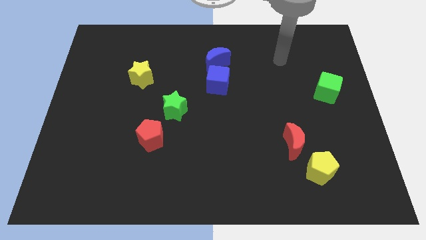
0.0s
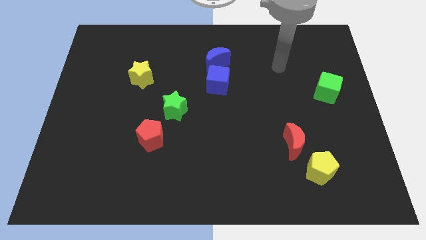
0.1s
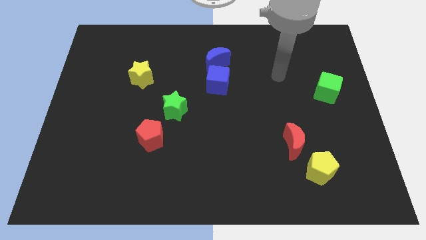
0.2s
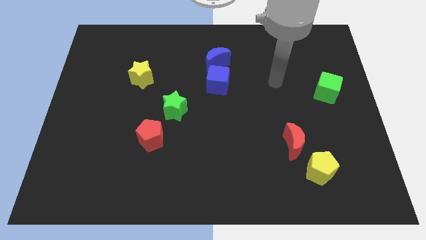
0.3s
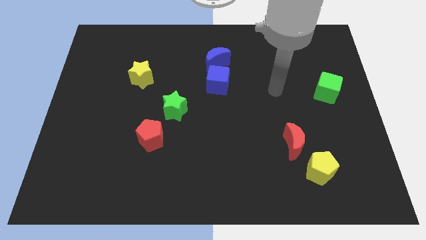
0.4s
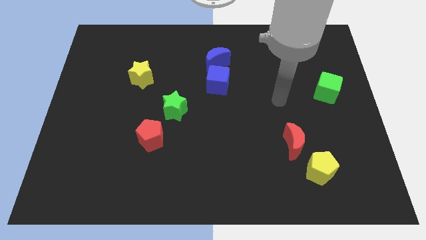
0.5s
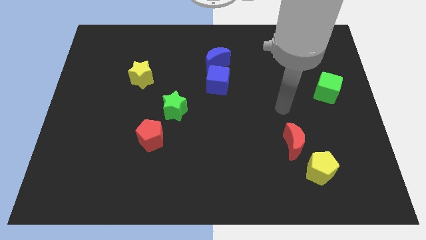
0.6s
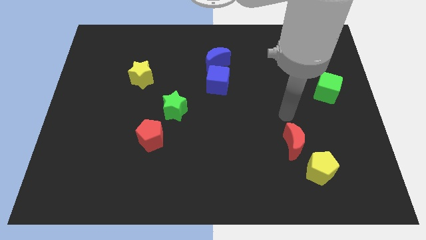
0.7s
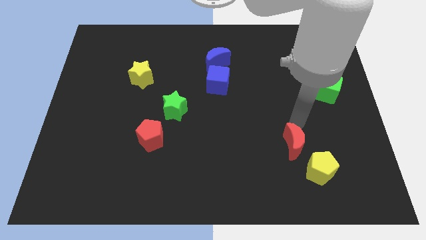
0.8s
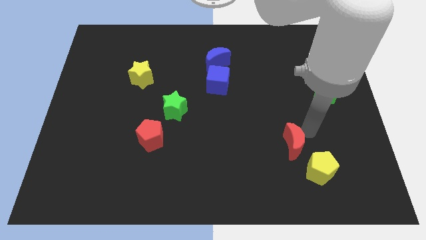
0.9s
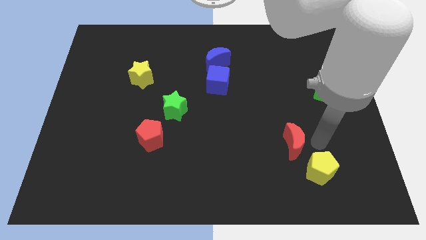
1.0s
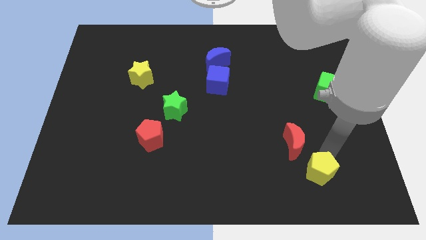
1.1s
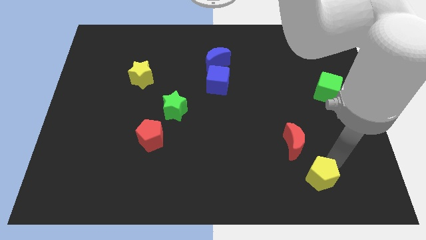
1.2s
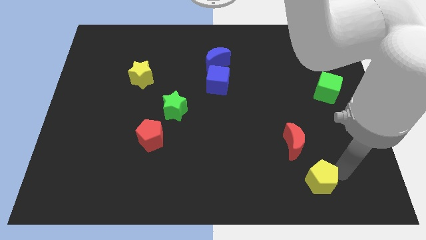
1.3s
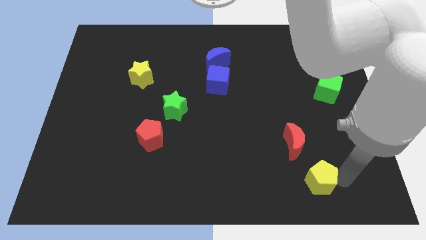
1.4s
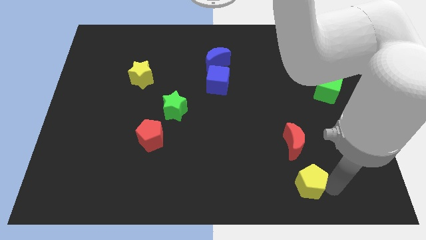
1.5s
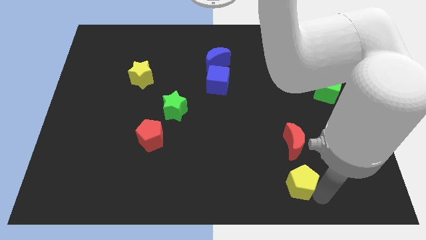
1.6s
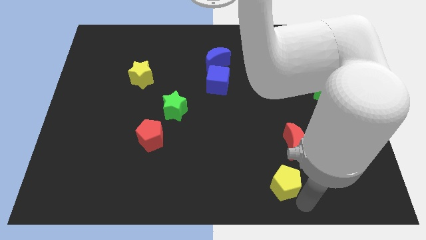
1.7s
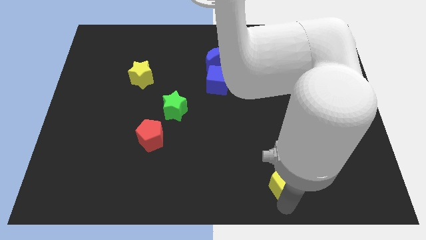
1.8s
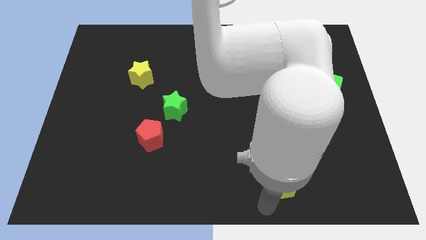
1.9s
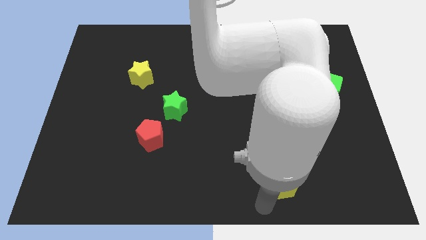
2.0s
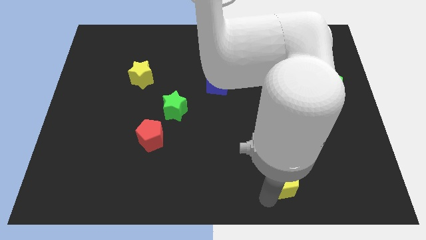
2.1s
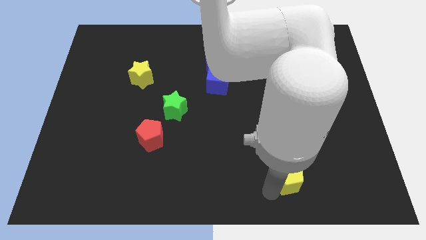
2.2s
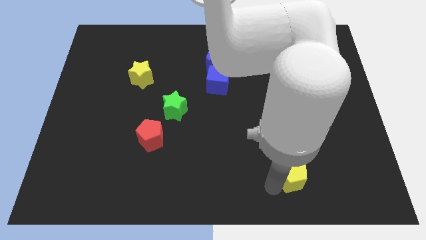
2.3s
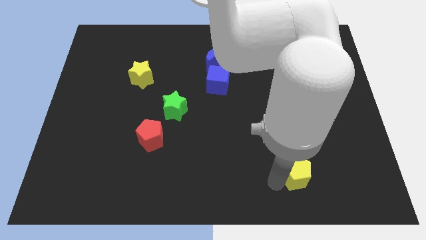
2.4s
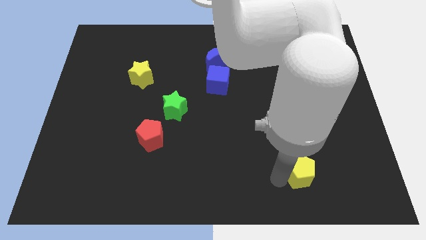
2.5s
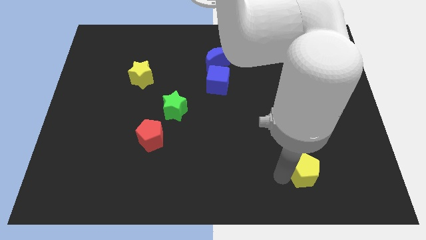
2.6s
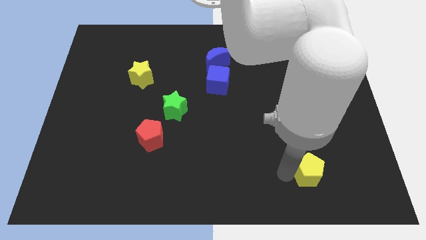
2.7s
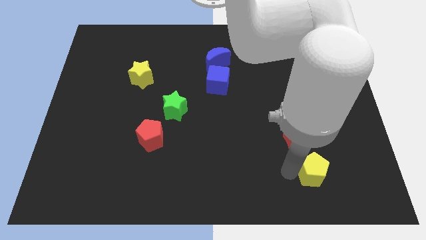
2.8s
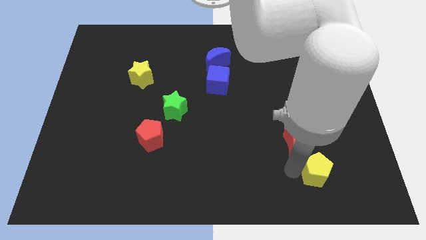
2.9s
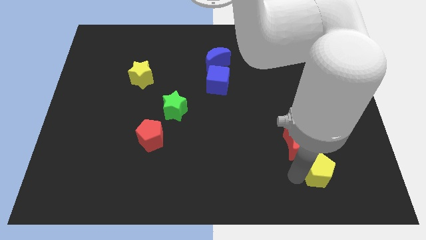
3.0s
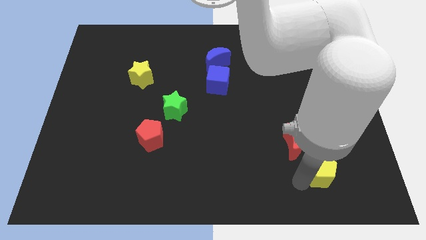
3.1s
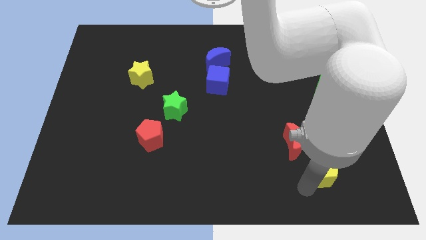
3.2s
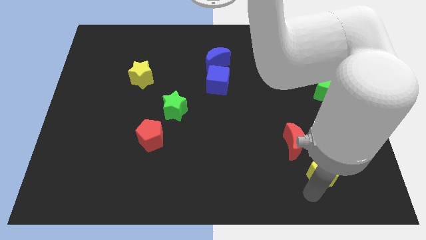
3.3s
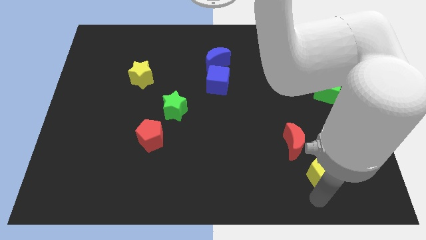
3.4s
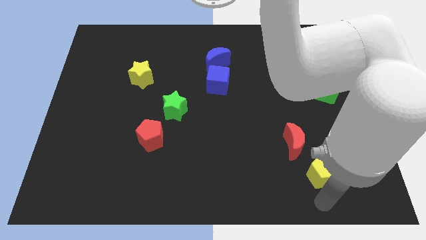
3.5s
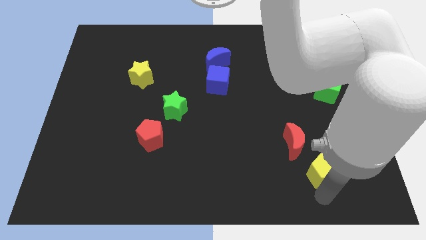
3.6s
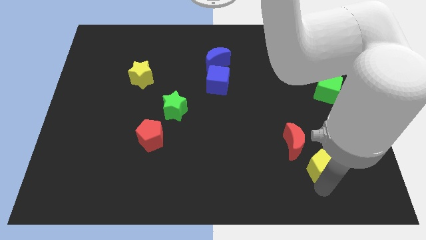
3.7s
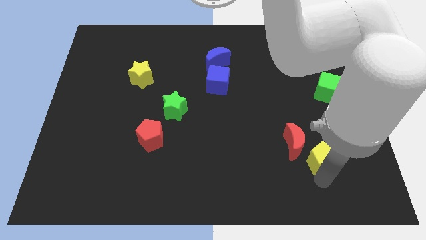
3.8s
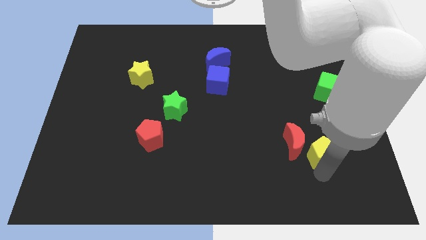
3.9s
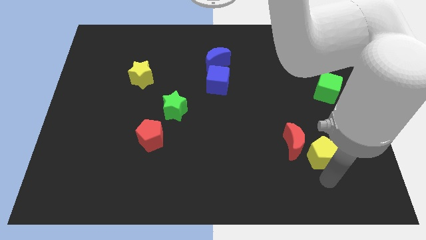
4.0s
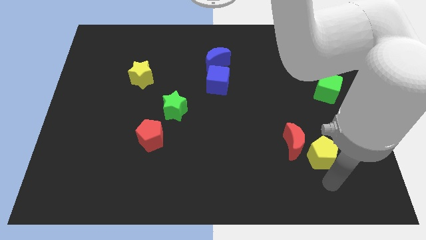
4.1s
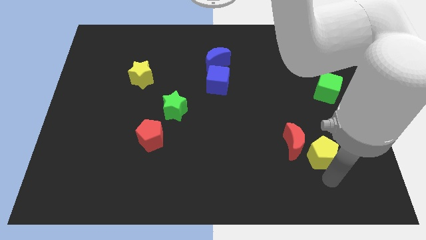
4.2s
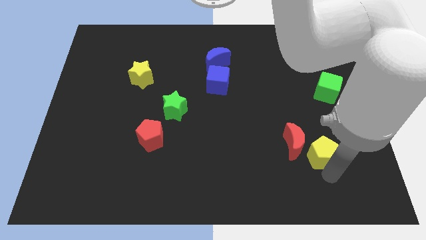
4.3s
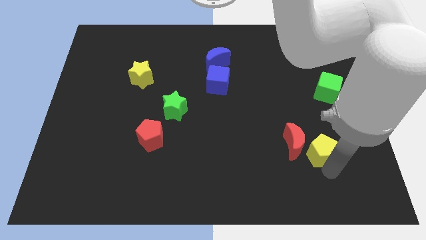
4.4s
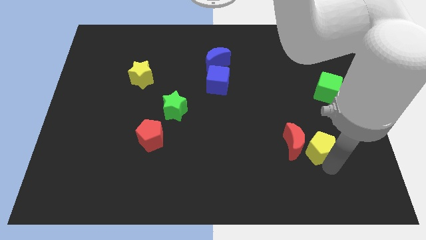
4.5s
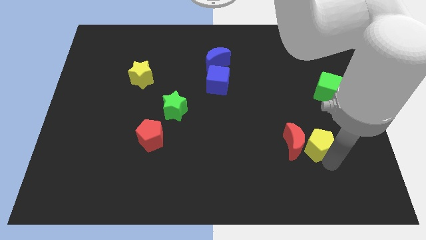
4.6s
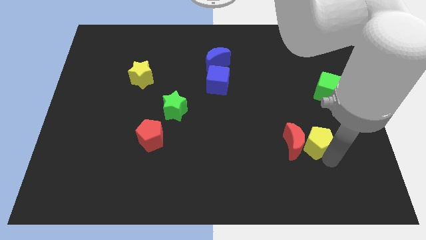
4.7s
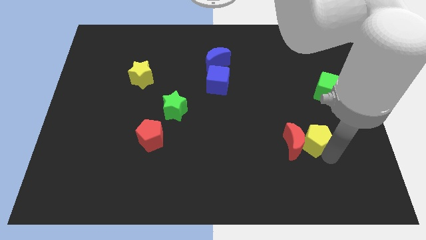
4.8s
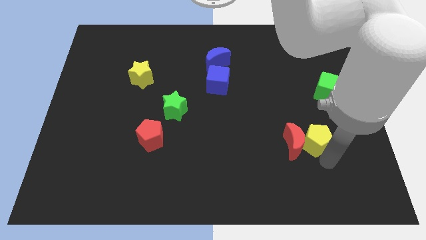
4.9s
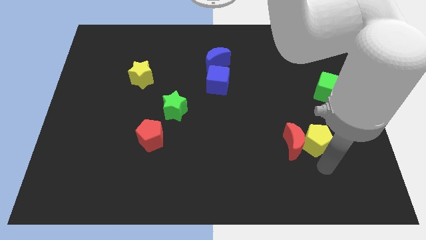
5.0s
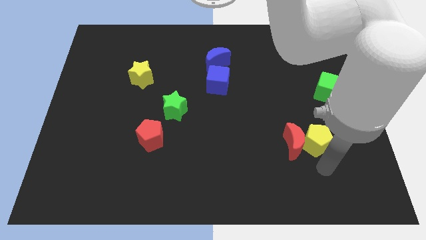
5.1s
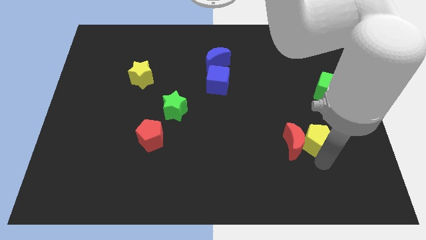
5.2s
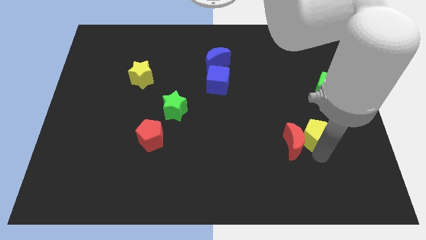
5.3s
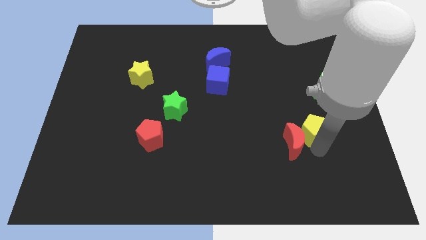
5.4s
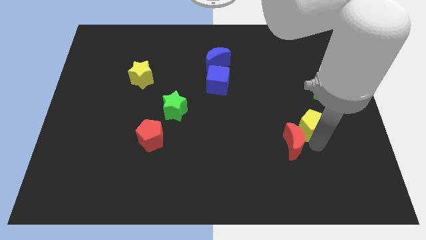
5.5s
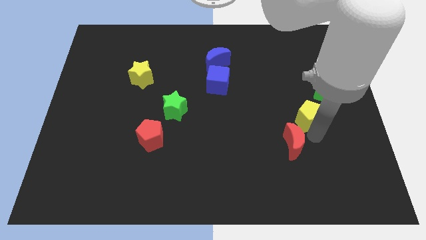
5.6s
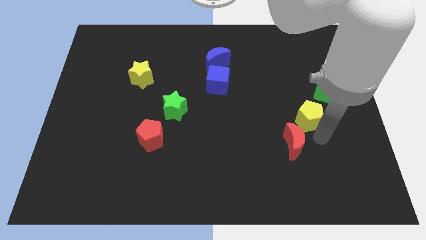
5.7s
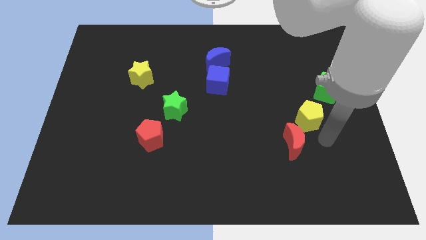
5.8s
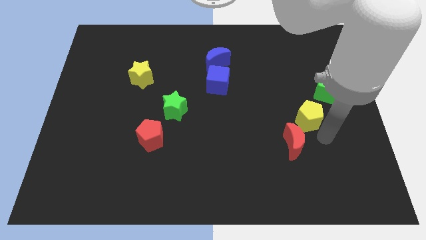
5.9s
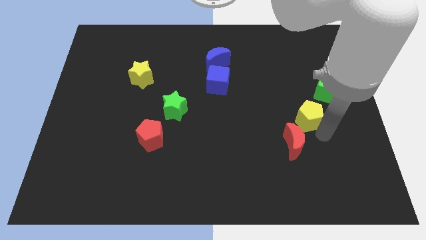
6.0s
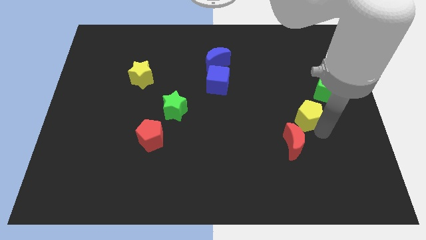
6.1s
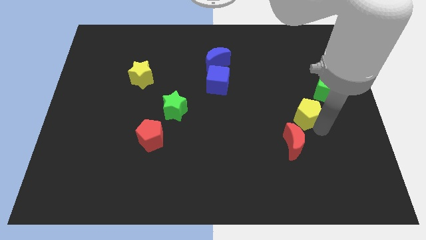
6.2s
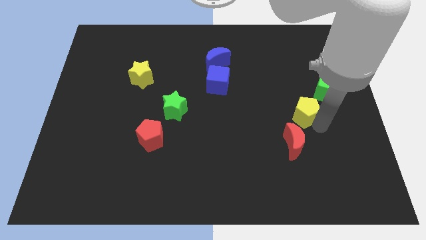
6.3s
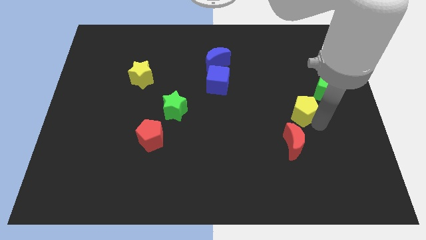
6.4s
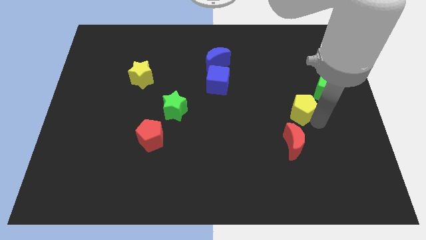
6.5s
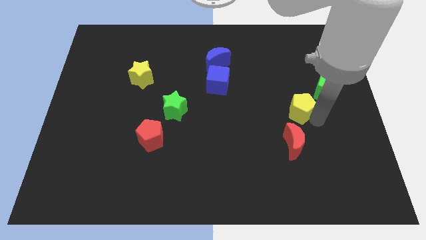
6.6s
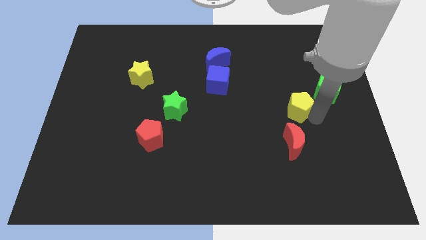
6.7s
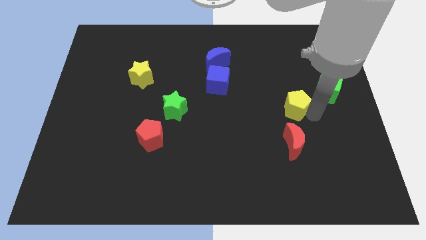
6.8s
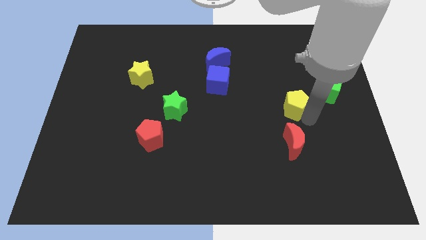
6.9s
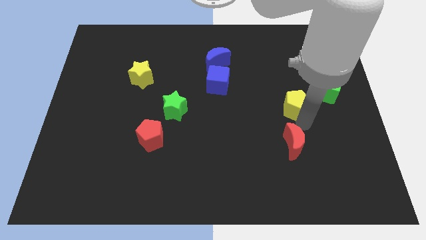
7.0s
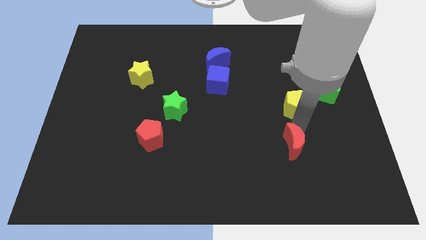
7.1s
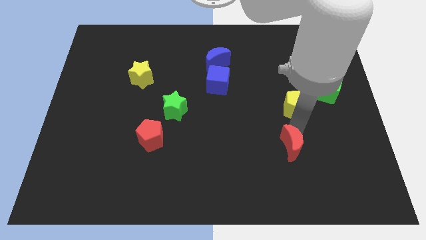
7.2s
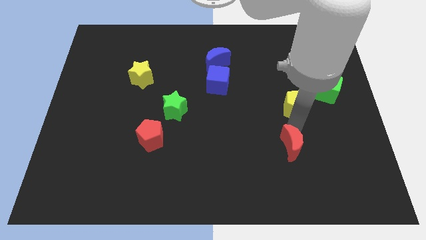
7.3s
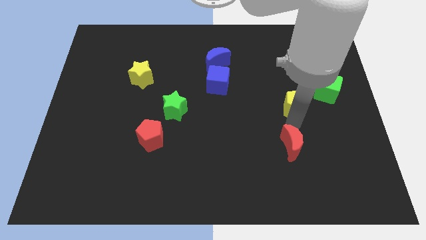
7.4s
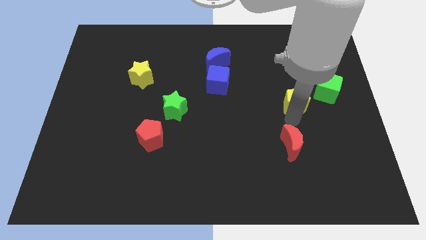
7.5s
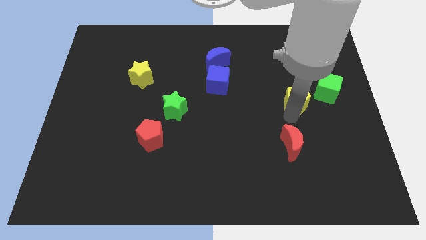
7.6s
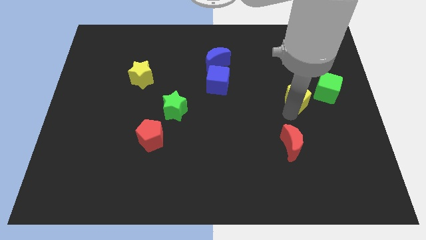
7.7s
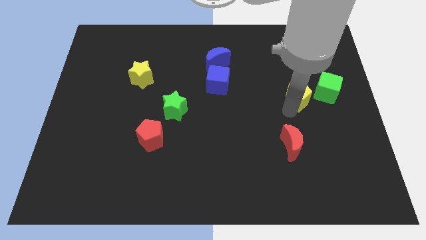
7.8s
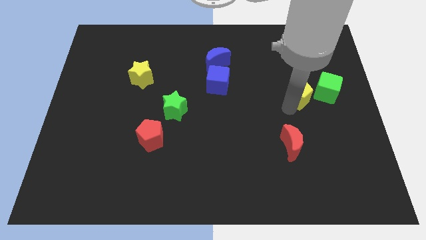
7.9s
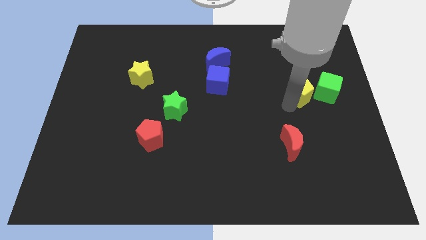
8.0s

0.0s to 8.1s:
slide the yellow pentagon up
